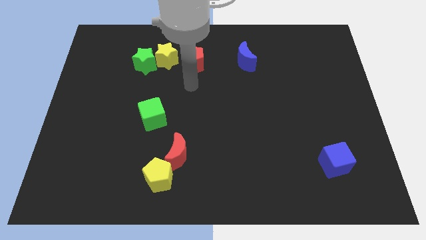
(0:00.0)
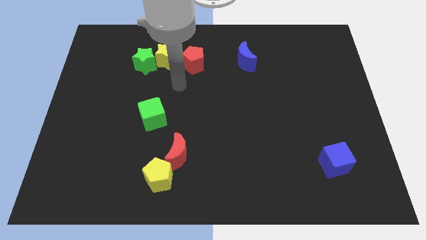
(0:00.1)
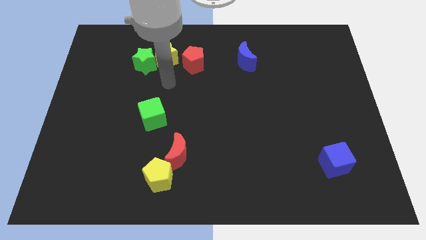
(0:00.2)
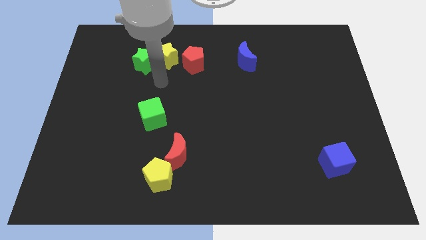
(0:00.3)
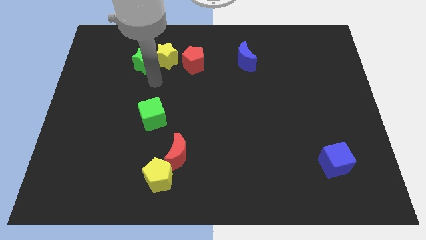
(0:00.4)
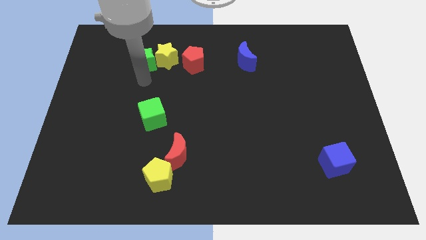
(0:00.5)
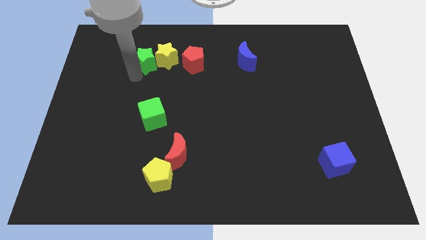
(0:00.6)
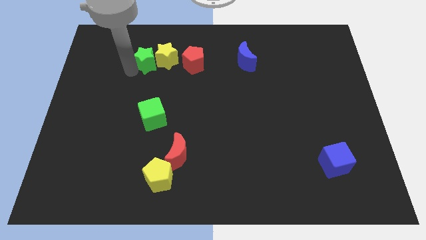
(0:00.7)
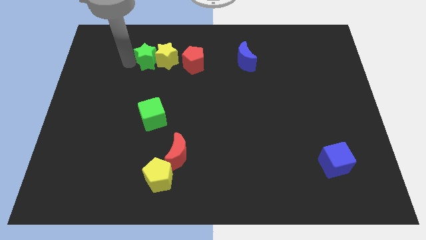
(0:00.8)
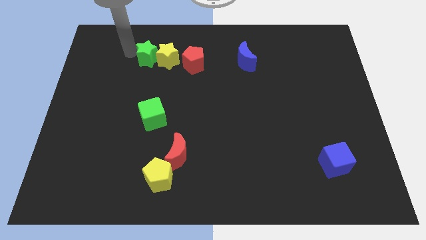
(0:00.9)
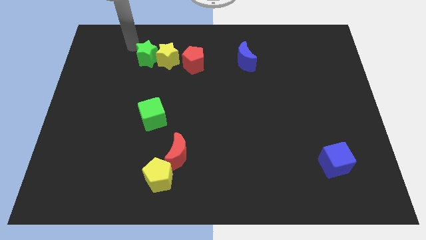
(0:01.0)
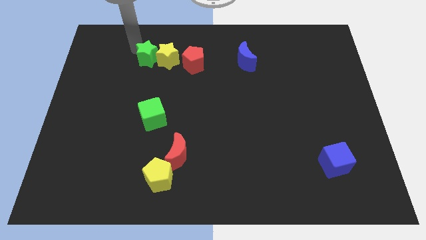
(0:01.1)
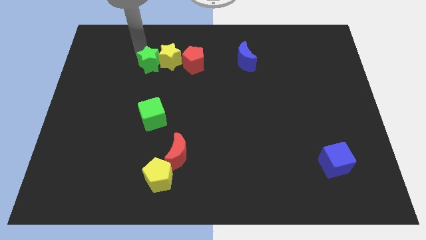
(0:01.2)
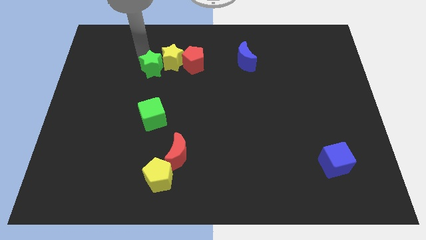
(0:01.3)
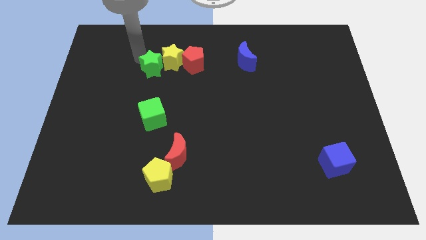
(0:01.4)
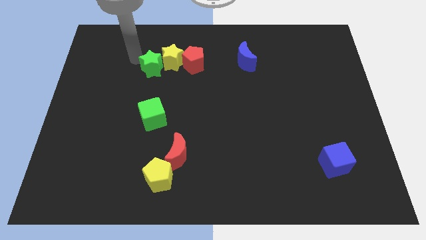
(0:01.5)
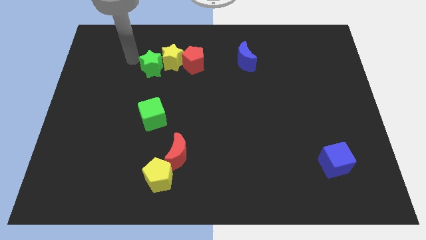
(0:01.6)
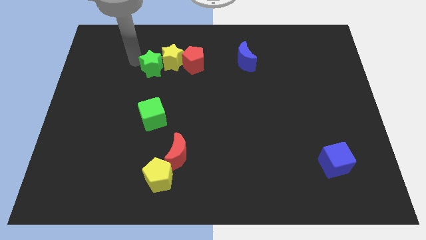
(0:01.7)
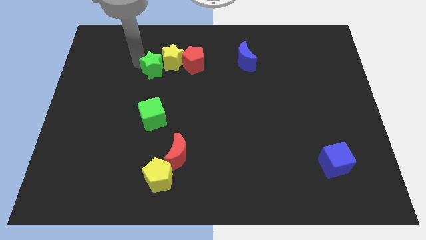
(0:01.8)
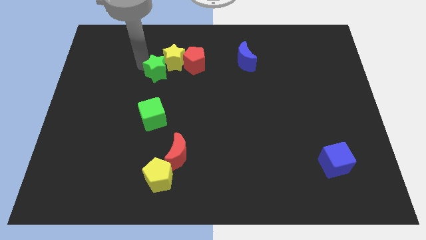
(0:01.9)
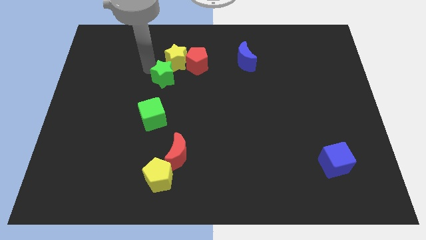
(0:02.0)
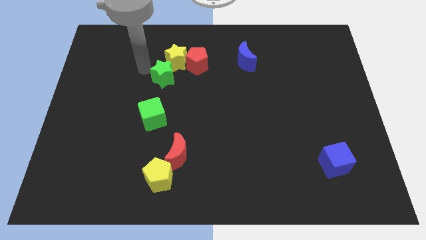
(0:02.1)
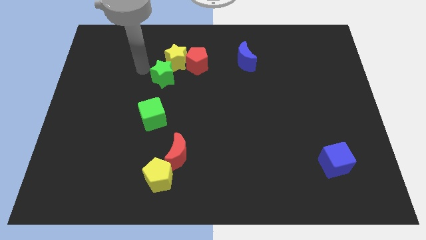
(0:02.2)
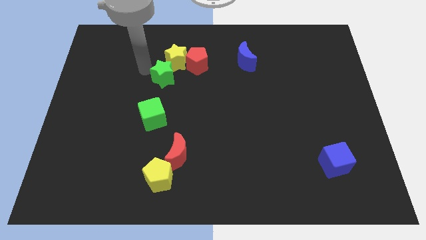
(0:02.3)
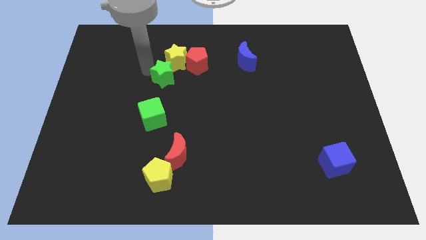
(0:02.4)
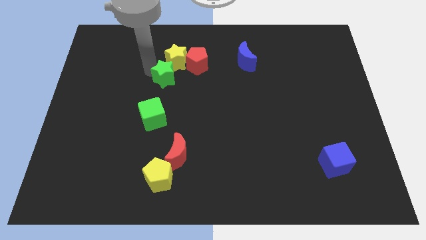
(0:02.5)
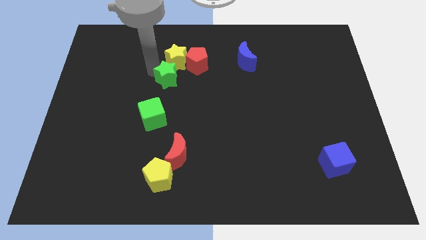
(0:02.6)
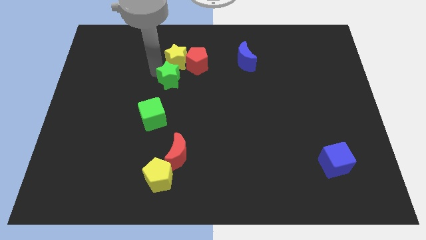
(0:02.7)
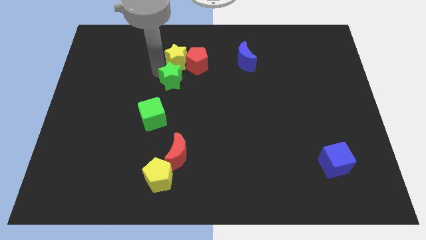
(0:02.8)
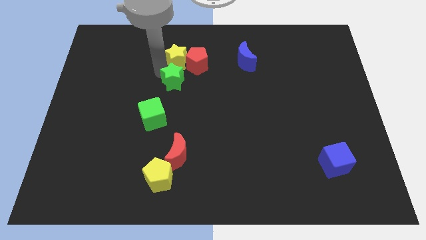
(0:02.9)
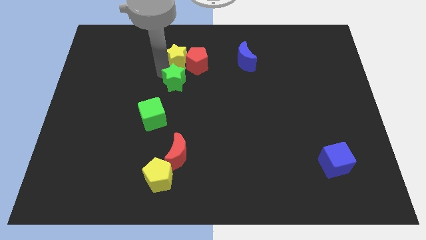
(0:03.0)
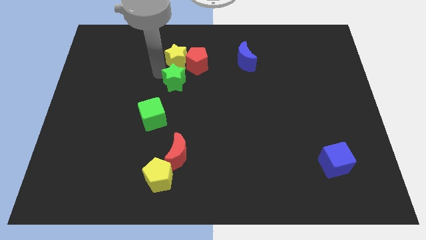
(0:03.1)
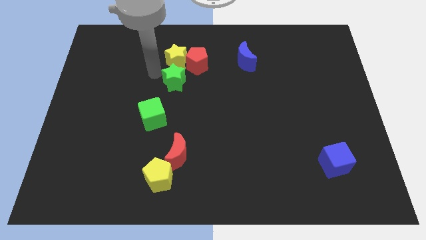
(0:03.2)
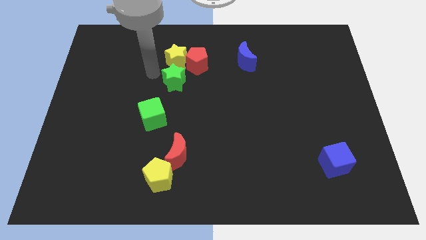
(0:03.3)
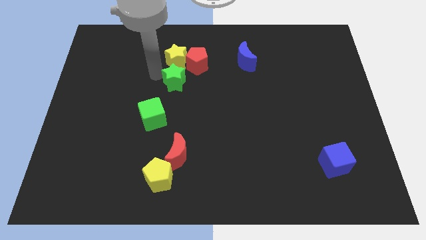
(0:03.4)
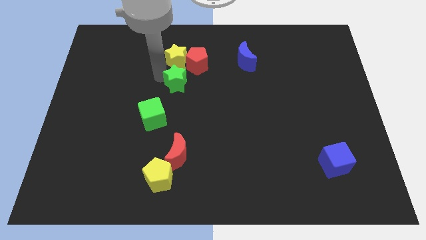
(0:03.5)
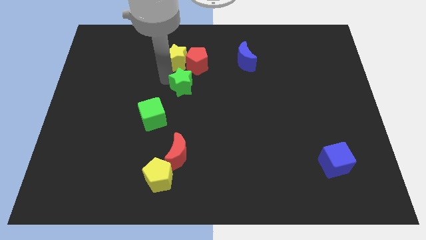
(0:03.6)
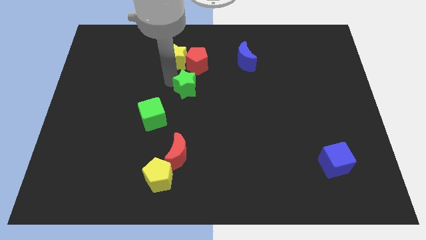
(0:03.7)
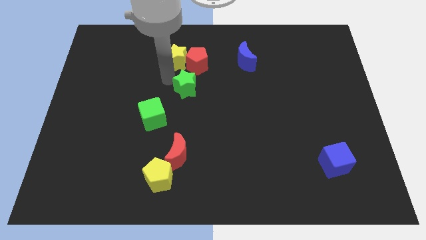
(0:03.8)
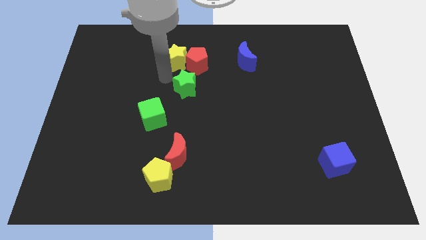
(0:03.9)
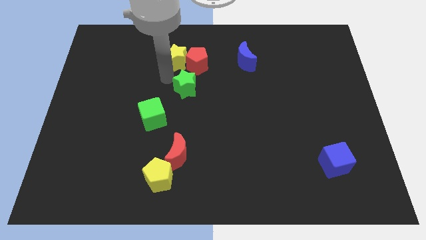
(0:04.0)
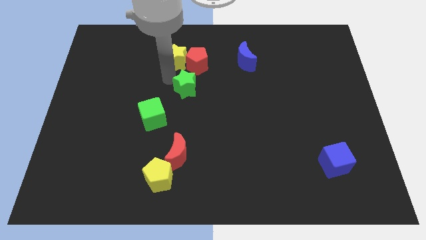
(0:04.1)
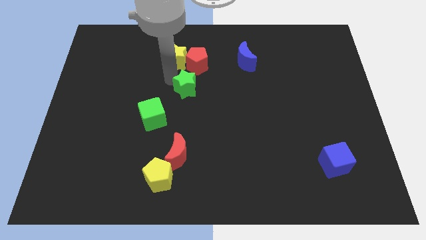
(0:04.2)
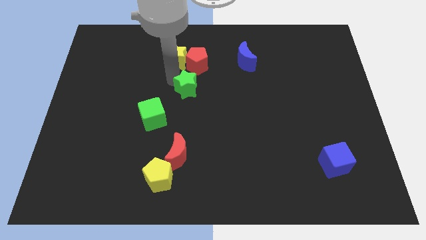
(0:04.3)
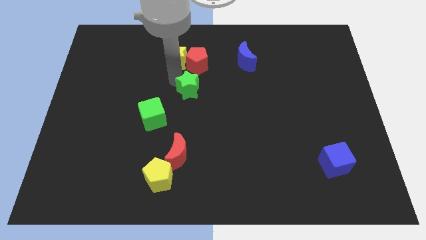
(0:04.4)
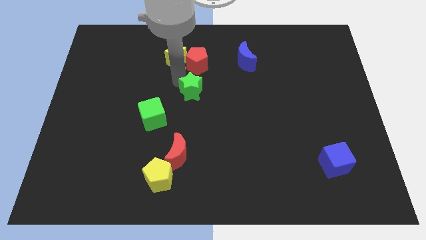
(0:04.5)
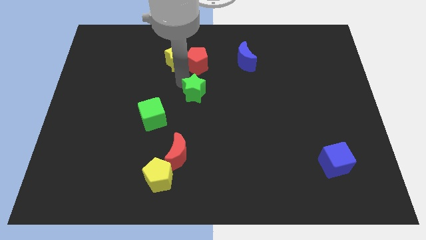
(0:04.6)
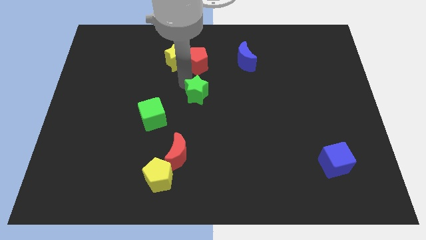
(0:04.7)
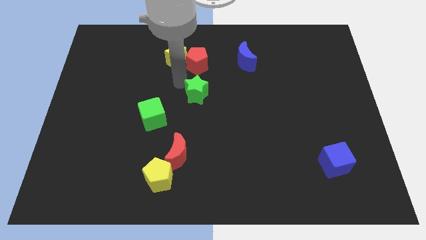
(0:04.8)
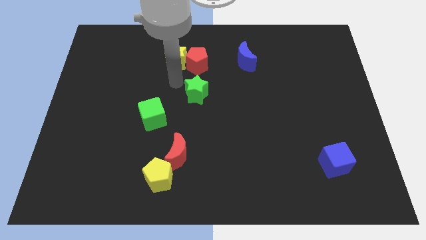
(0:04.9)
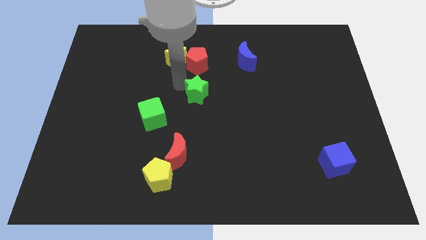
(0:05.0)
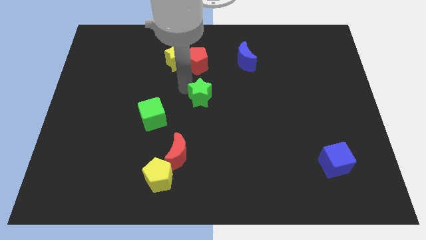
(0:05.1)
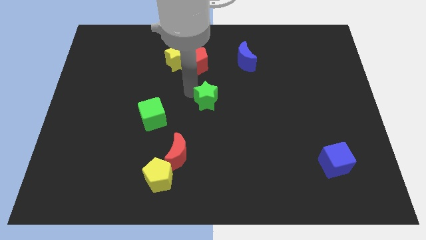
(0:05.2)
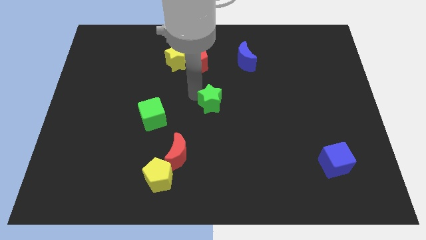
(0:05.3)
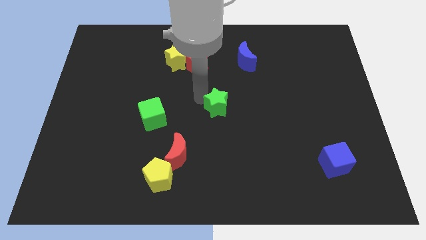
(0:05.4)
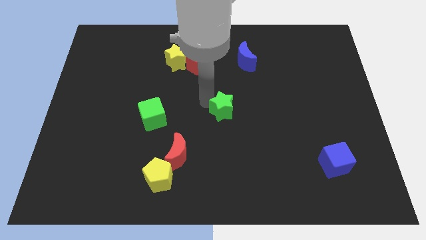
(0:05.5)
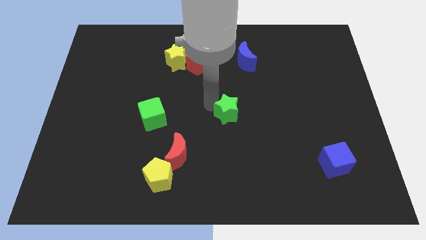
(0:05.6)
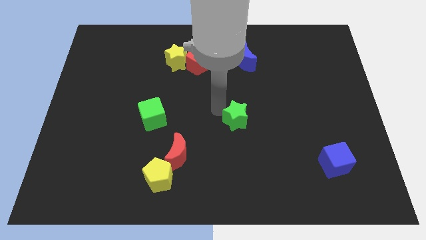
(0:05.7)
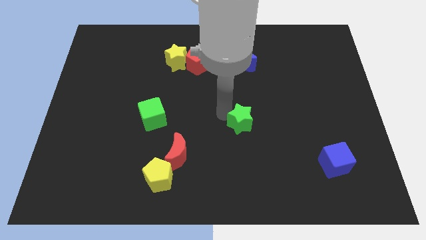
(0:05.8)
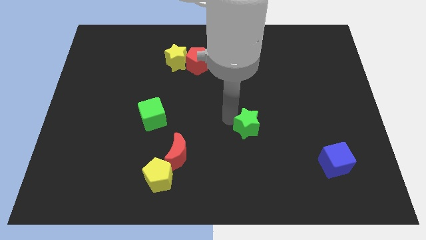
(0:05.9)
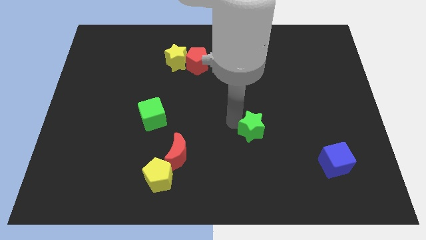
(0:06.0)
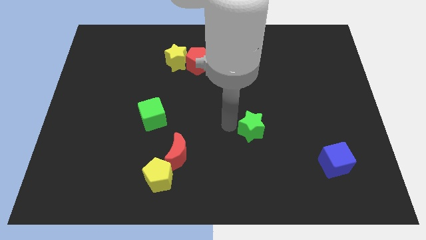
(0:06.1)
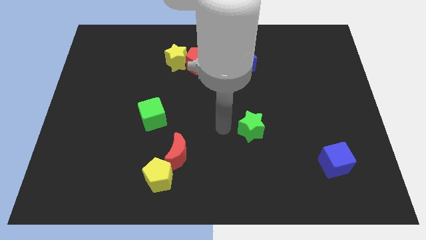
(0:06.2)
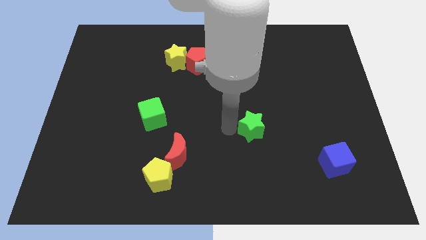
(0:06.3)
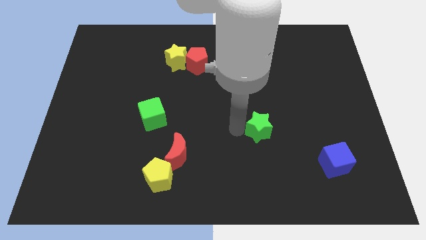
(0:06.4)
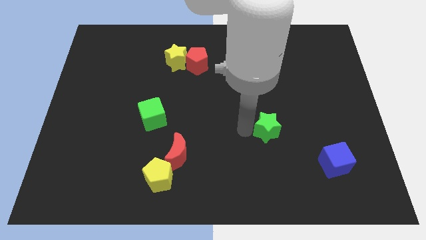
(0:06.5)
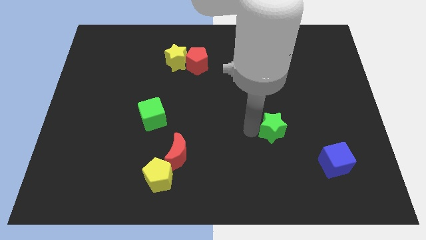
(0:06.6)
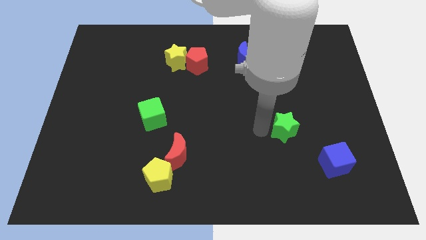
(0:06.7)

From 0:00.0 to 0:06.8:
slide the green star to the top left of the blue cube

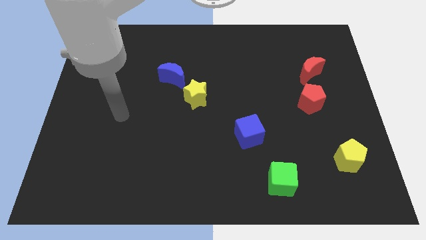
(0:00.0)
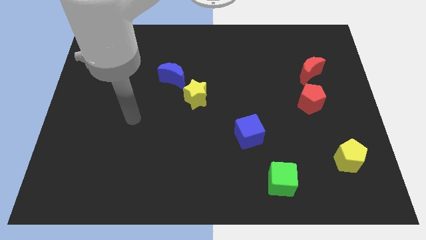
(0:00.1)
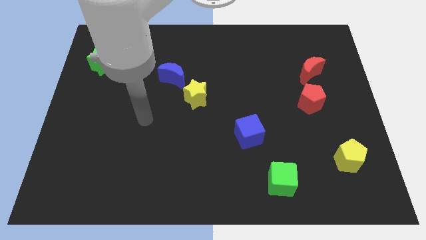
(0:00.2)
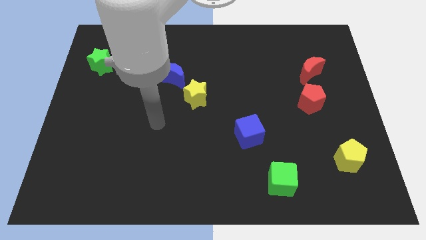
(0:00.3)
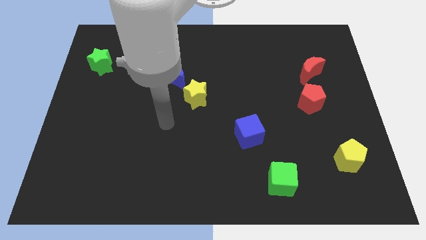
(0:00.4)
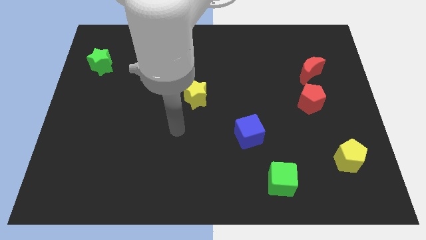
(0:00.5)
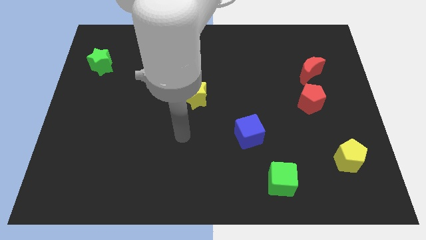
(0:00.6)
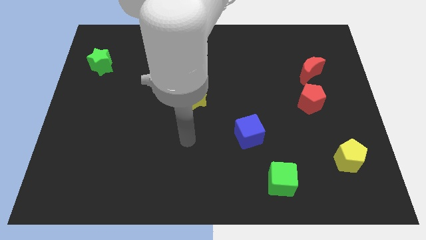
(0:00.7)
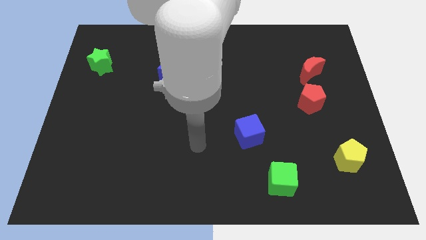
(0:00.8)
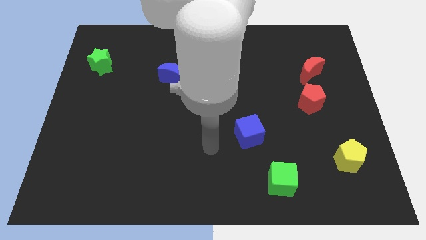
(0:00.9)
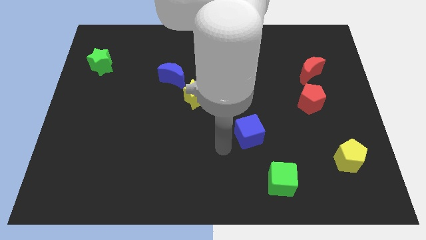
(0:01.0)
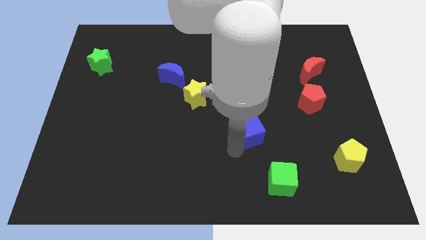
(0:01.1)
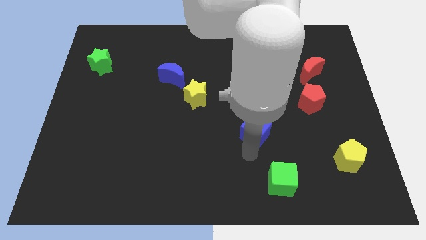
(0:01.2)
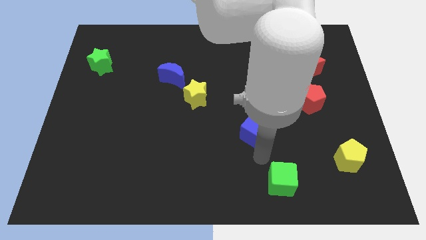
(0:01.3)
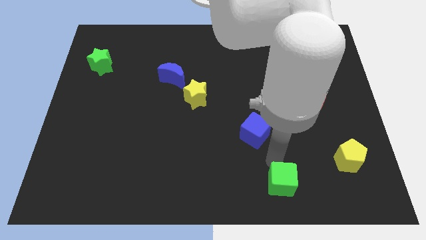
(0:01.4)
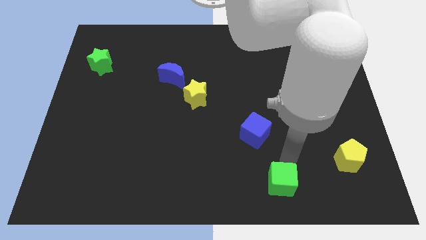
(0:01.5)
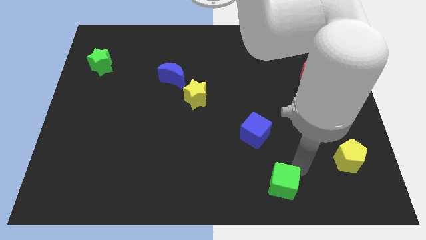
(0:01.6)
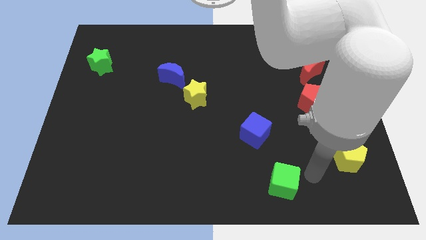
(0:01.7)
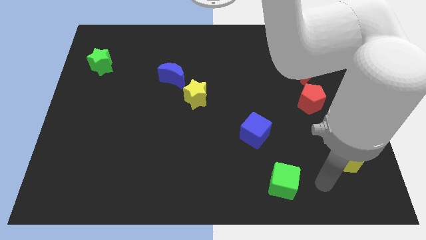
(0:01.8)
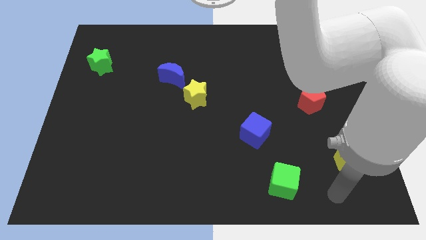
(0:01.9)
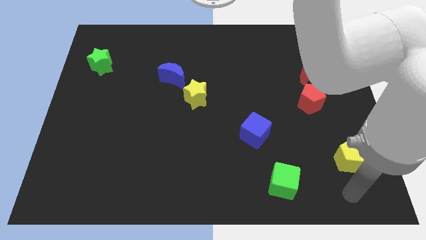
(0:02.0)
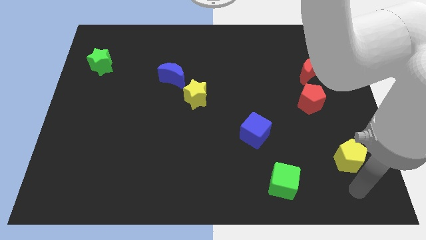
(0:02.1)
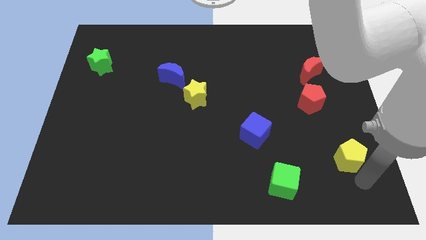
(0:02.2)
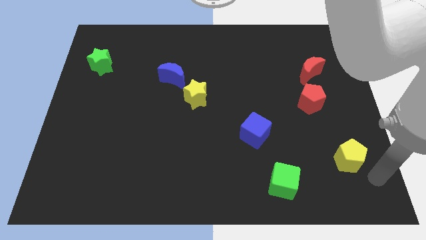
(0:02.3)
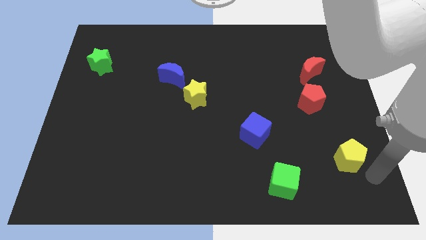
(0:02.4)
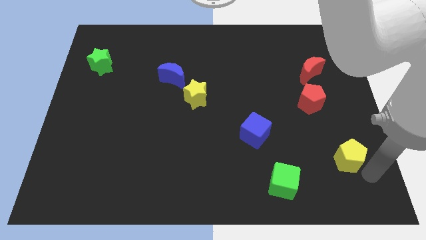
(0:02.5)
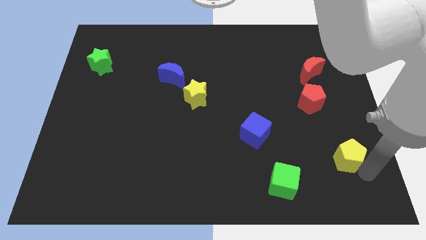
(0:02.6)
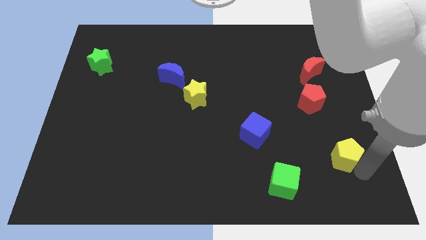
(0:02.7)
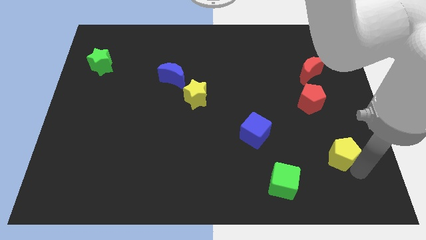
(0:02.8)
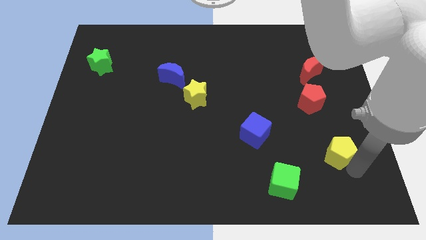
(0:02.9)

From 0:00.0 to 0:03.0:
push the yellow pentagon below the red pentagon
